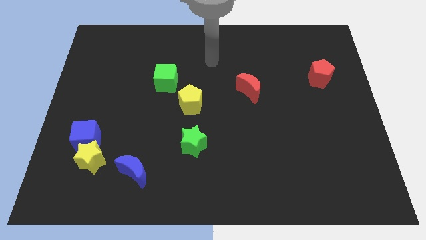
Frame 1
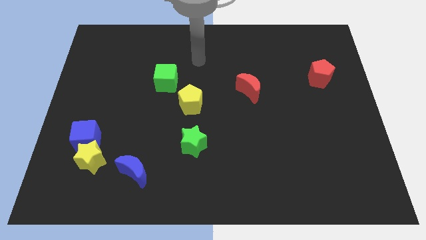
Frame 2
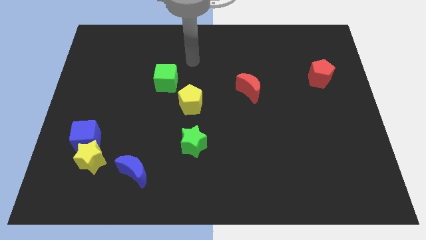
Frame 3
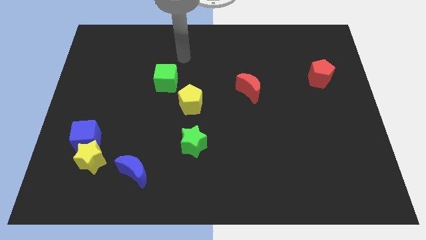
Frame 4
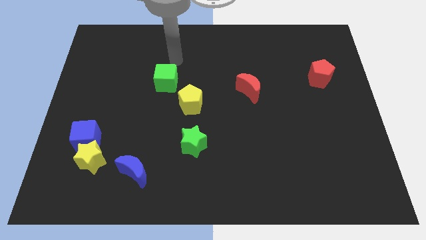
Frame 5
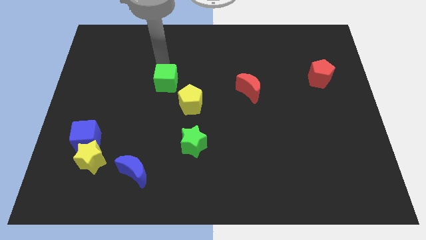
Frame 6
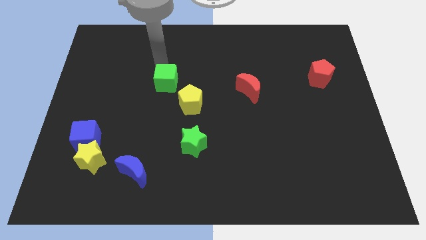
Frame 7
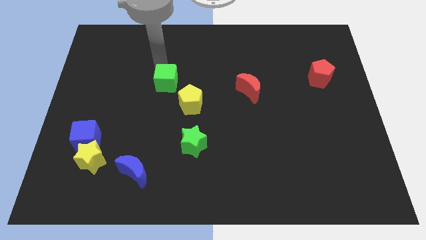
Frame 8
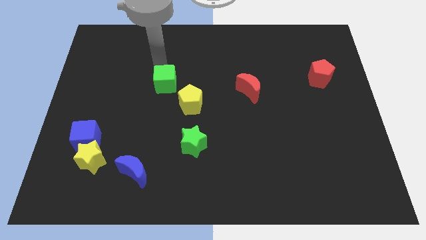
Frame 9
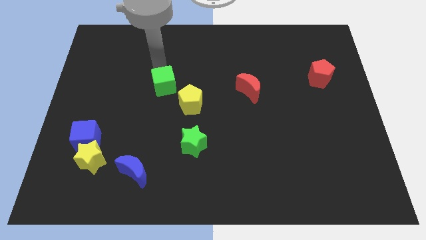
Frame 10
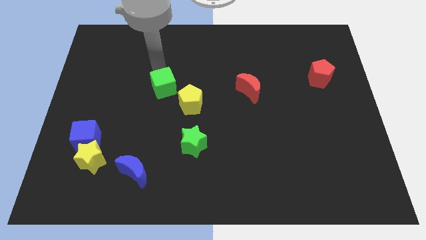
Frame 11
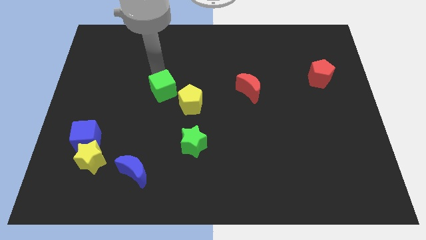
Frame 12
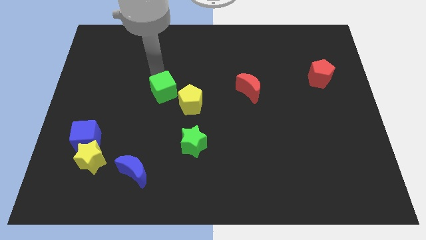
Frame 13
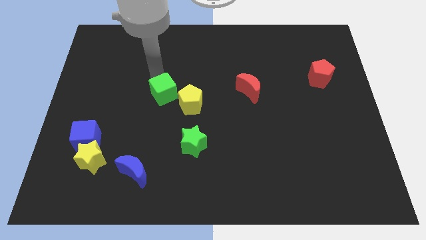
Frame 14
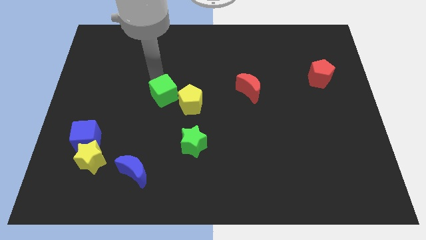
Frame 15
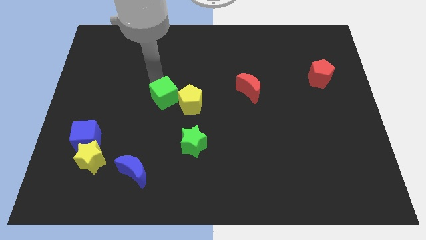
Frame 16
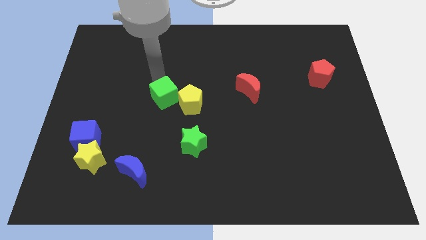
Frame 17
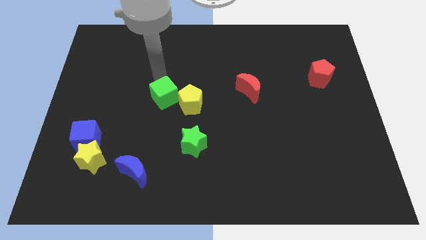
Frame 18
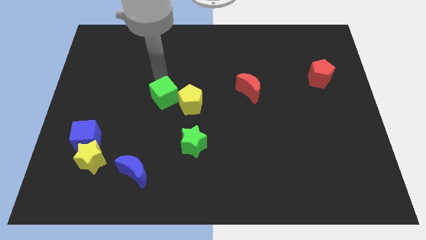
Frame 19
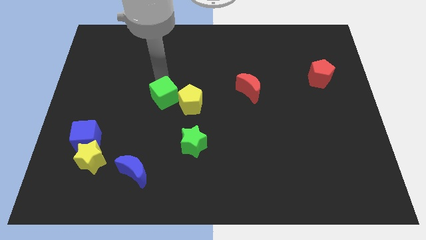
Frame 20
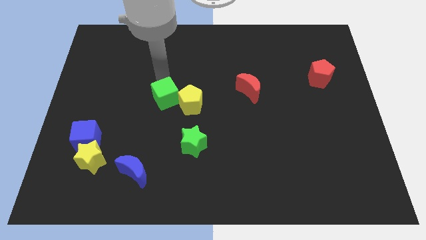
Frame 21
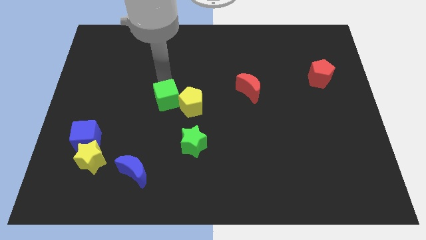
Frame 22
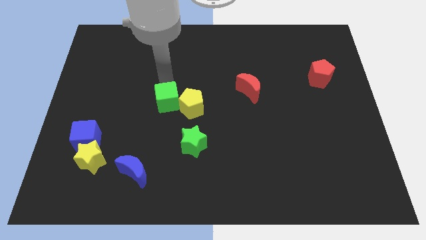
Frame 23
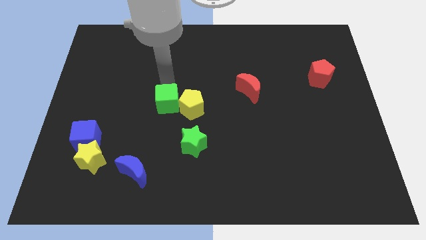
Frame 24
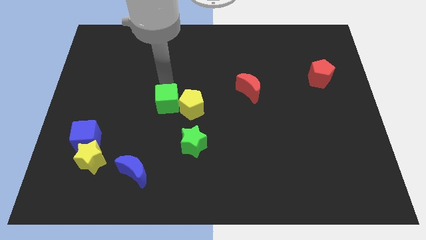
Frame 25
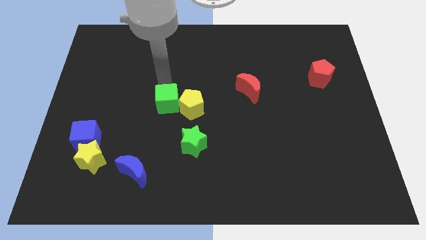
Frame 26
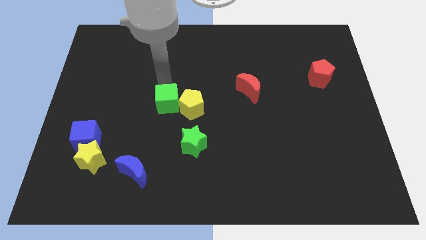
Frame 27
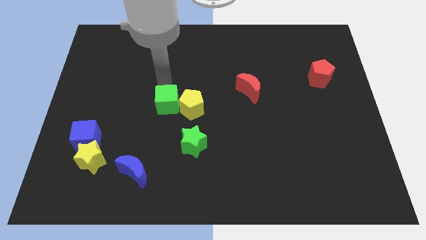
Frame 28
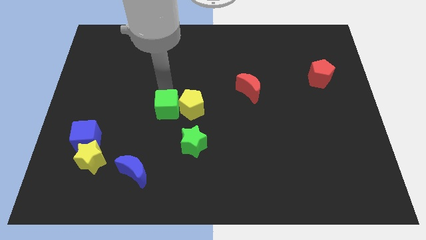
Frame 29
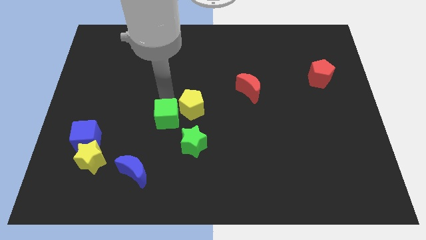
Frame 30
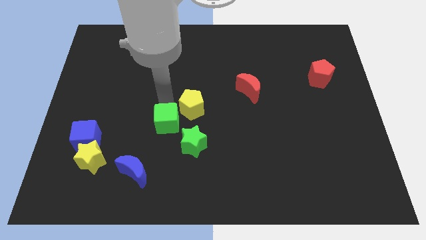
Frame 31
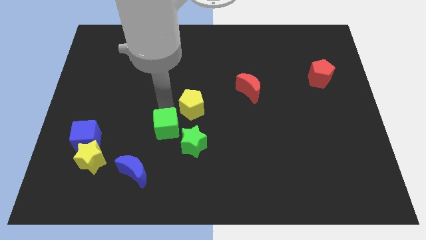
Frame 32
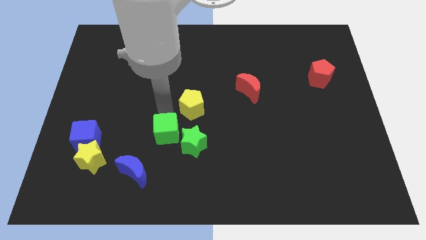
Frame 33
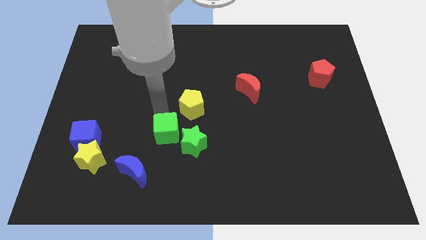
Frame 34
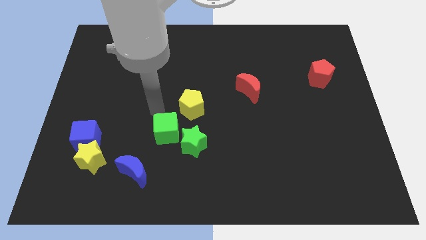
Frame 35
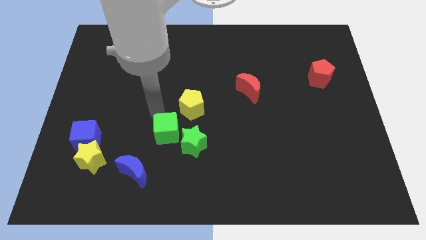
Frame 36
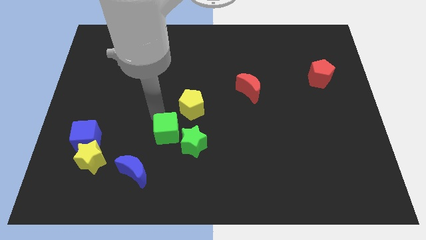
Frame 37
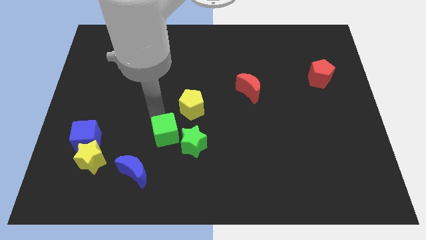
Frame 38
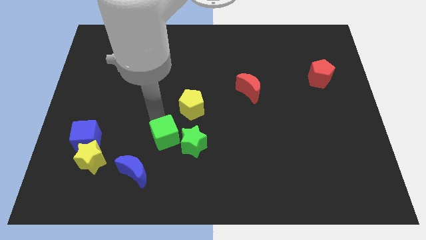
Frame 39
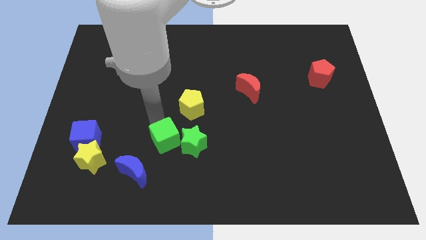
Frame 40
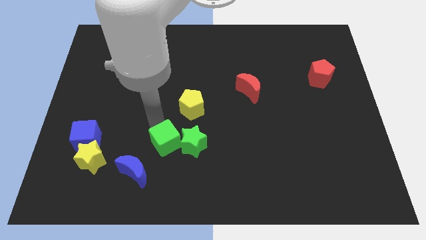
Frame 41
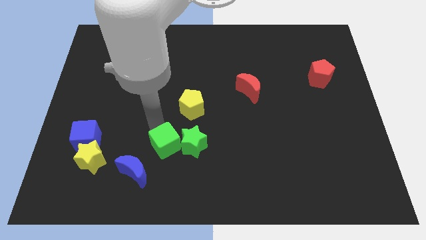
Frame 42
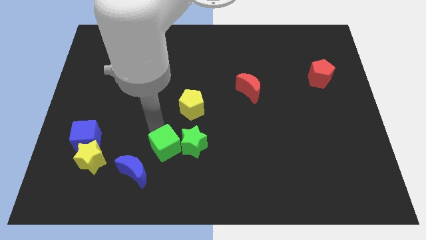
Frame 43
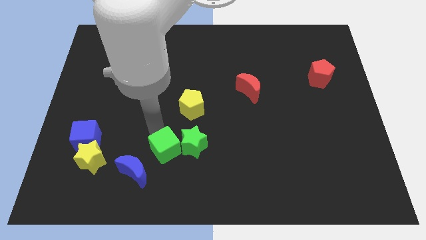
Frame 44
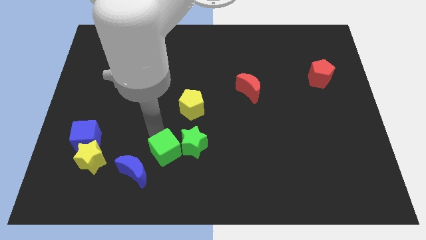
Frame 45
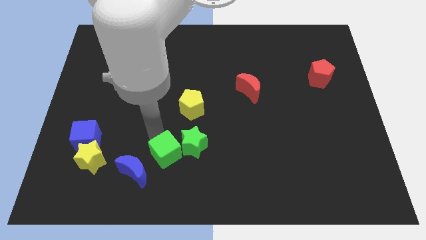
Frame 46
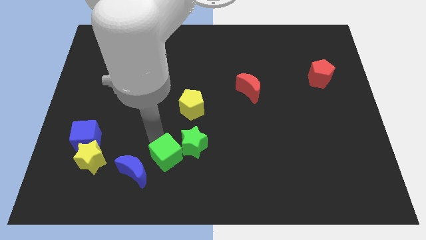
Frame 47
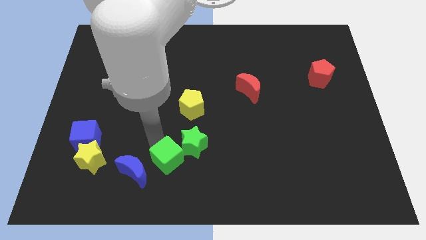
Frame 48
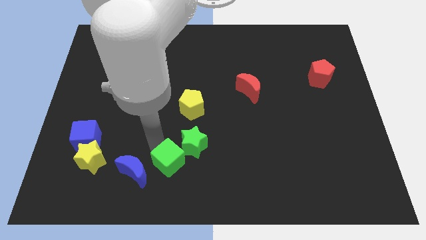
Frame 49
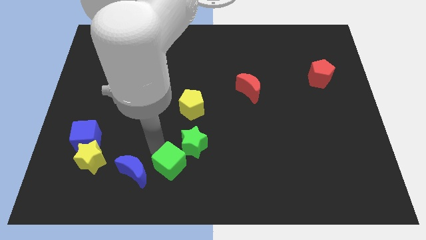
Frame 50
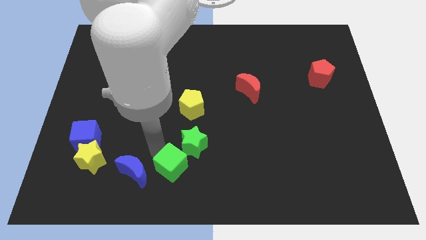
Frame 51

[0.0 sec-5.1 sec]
push the green cube to the bottom side

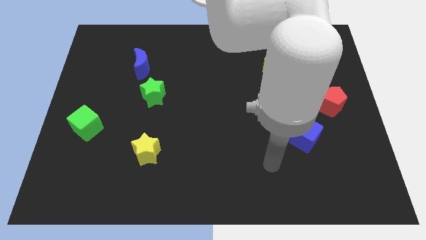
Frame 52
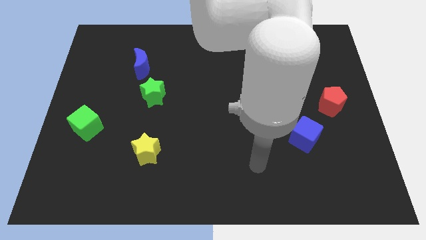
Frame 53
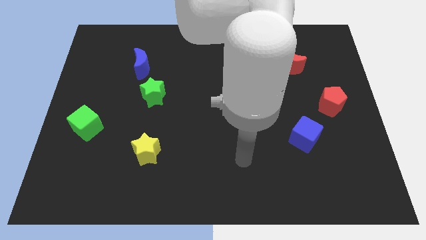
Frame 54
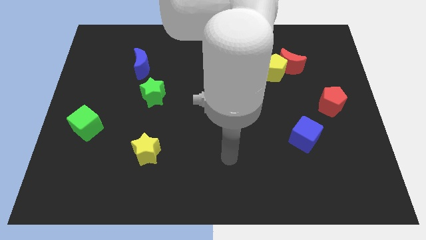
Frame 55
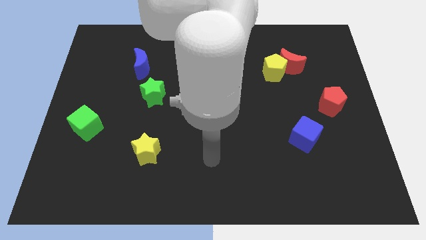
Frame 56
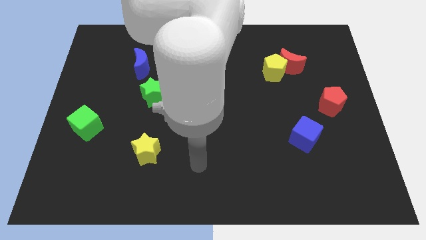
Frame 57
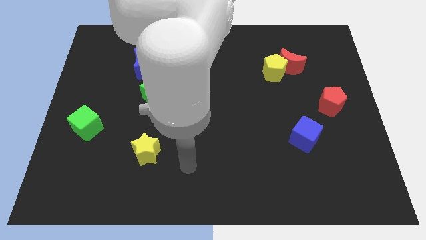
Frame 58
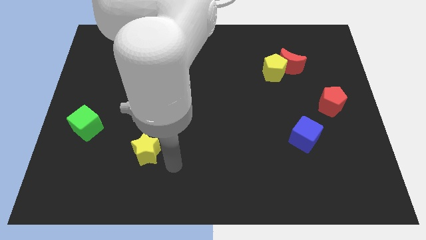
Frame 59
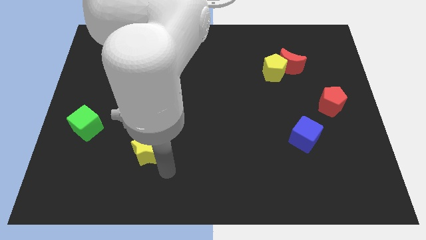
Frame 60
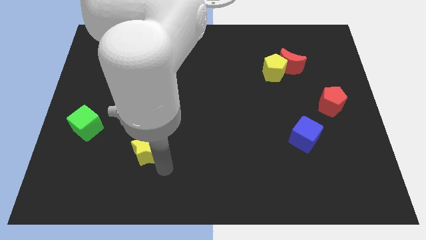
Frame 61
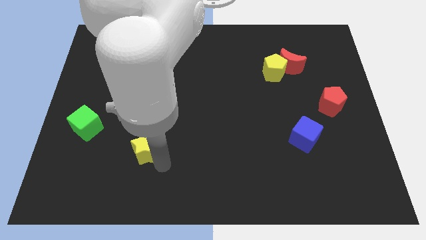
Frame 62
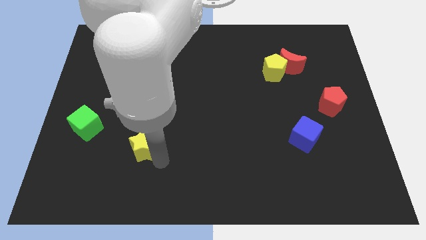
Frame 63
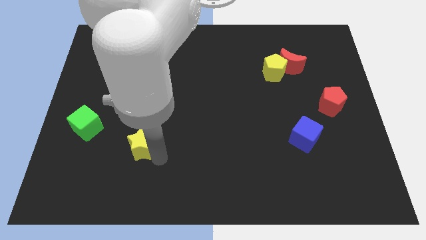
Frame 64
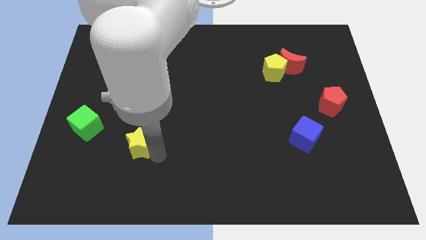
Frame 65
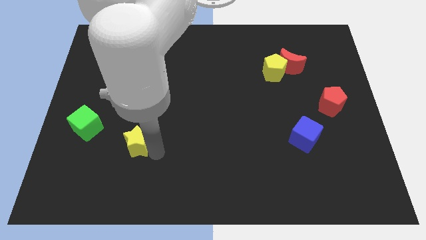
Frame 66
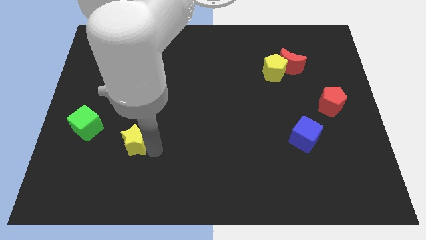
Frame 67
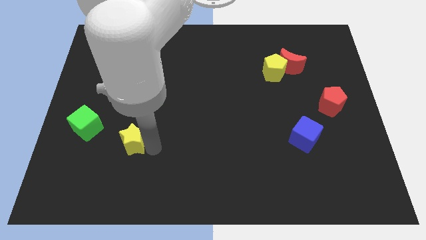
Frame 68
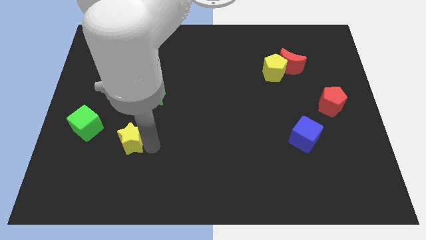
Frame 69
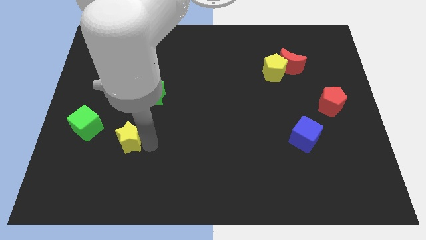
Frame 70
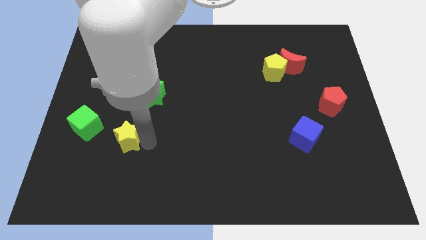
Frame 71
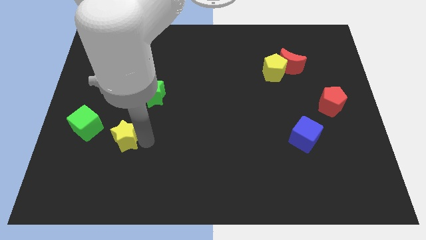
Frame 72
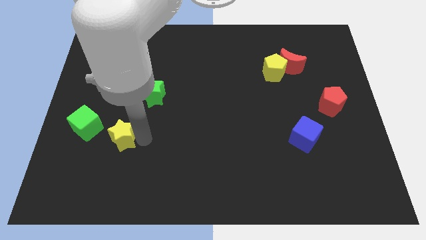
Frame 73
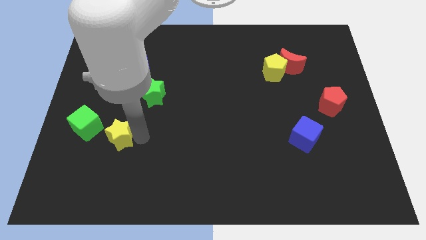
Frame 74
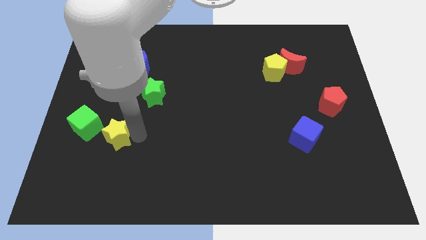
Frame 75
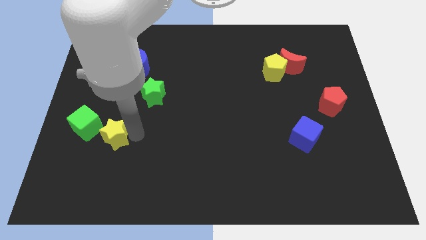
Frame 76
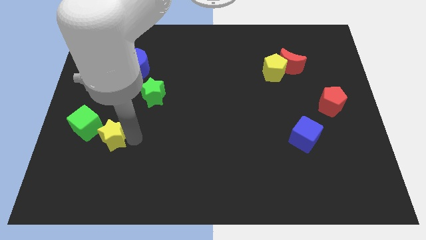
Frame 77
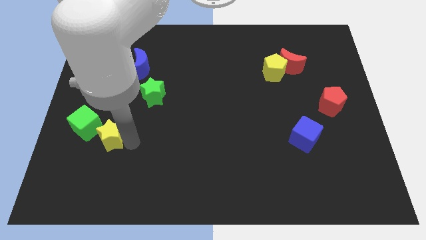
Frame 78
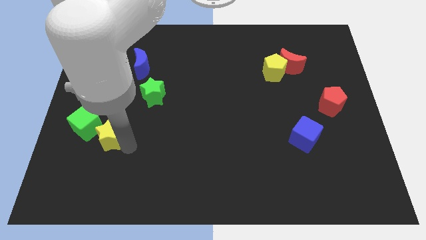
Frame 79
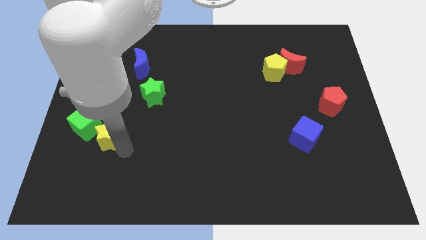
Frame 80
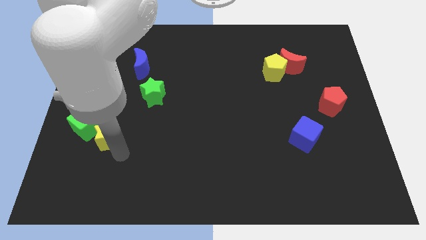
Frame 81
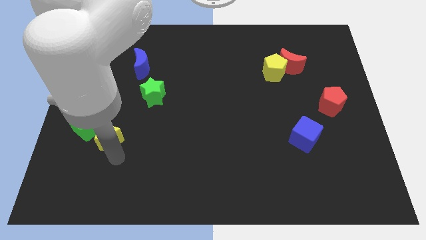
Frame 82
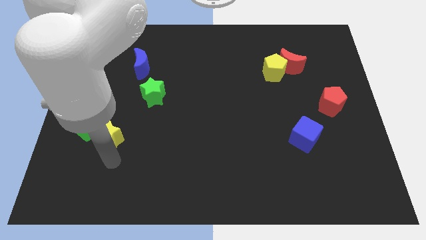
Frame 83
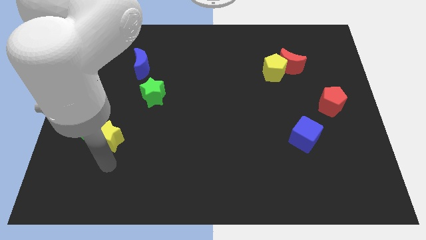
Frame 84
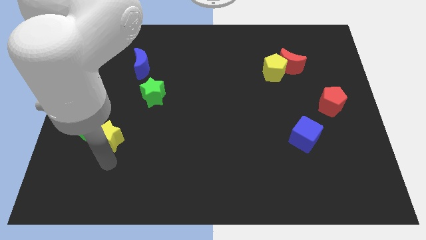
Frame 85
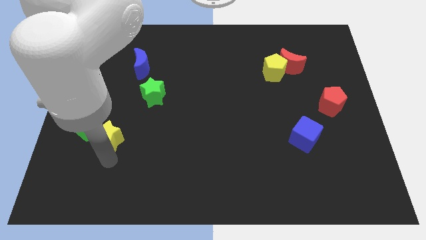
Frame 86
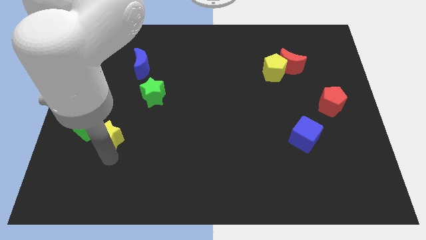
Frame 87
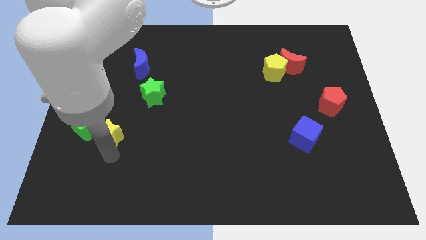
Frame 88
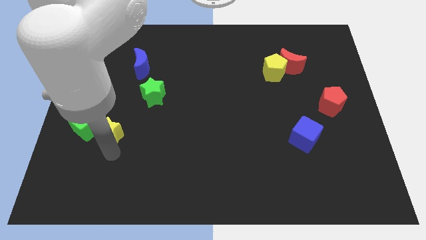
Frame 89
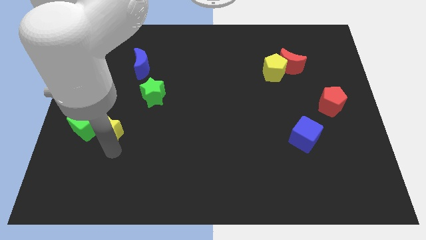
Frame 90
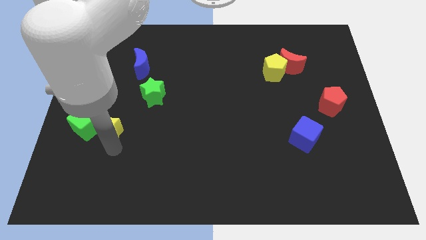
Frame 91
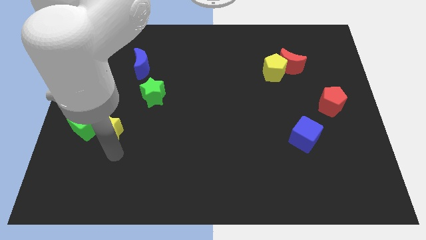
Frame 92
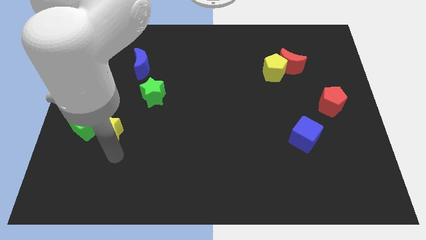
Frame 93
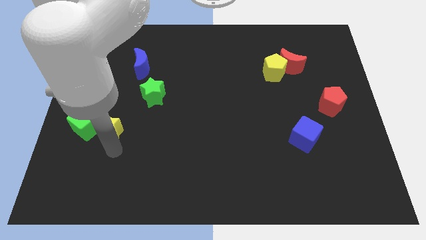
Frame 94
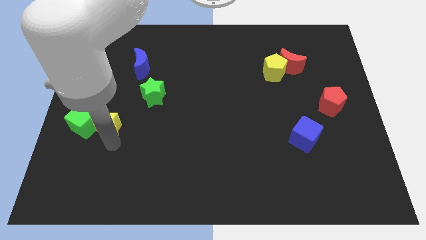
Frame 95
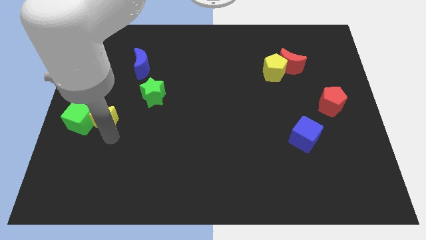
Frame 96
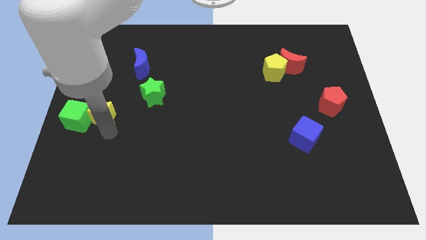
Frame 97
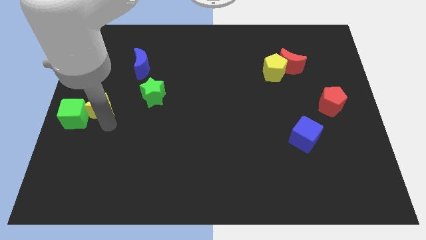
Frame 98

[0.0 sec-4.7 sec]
push the yellow star to the left side of the board
